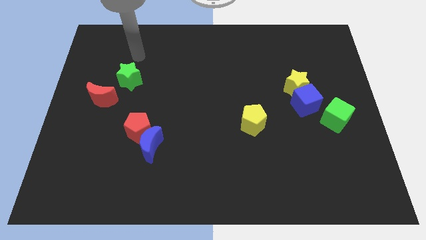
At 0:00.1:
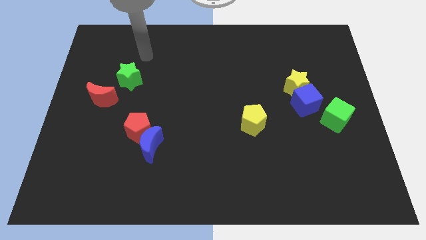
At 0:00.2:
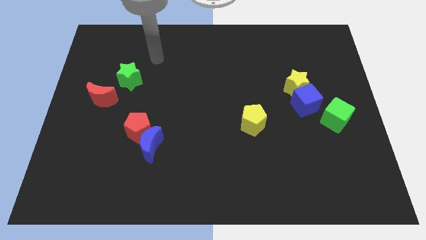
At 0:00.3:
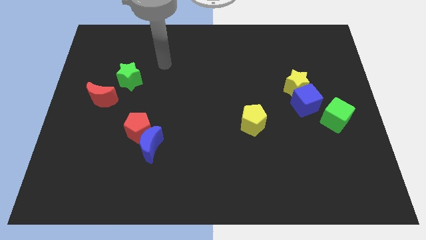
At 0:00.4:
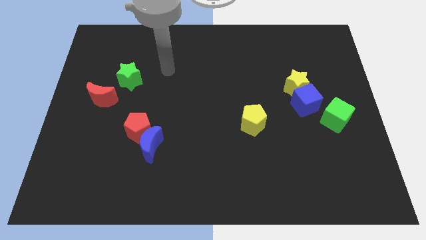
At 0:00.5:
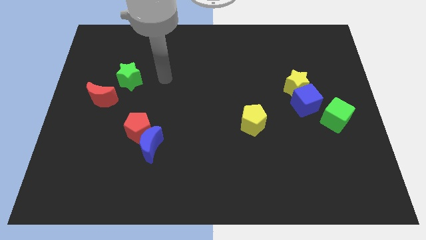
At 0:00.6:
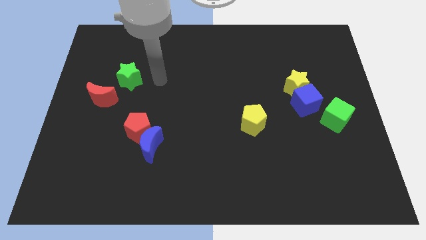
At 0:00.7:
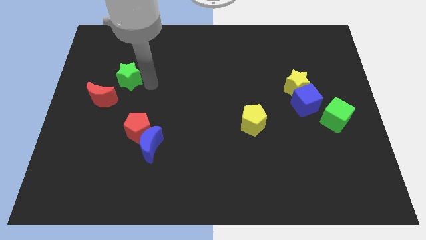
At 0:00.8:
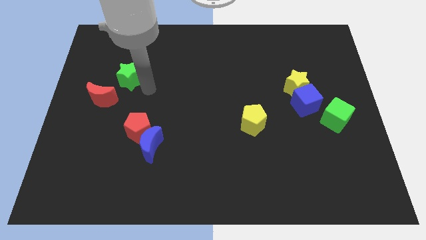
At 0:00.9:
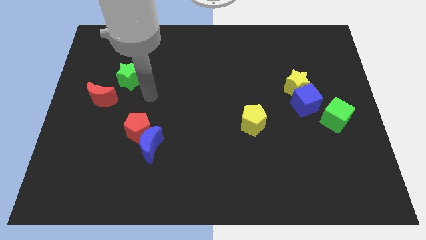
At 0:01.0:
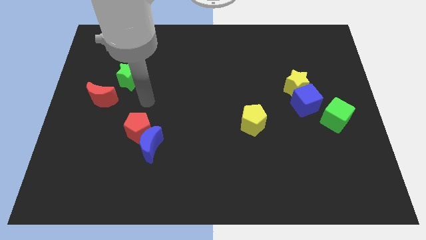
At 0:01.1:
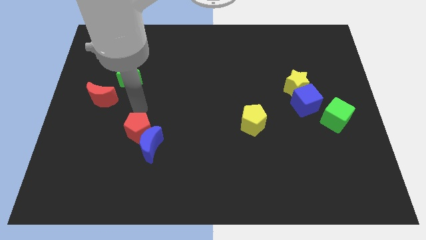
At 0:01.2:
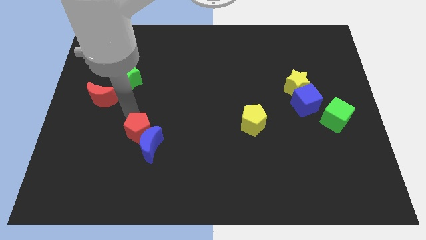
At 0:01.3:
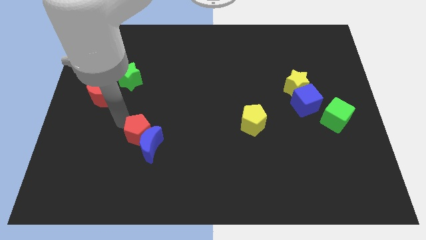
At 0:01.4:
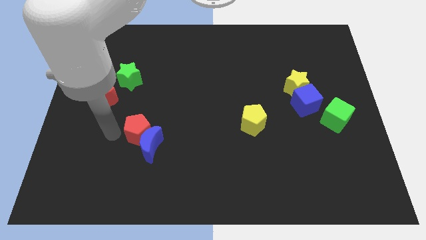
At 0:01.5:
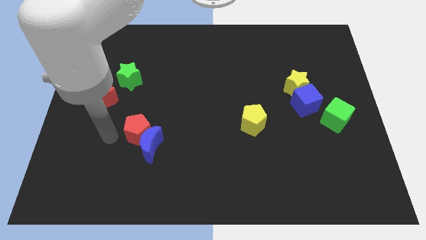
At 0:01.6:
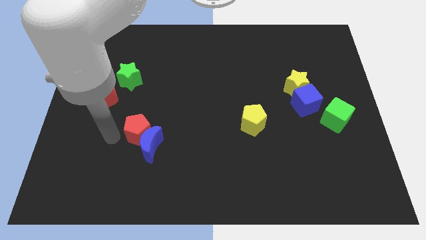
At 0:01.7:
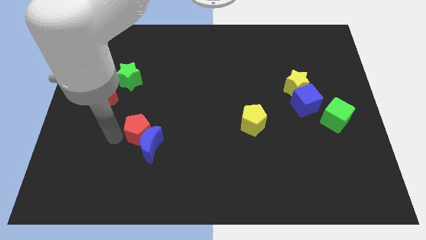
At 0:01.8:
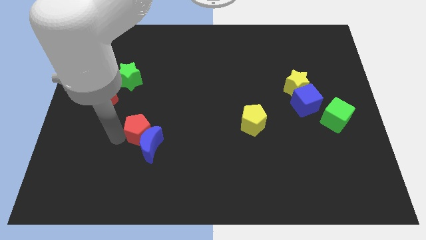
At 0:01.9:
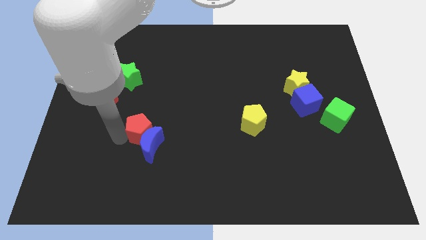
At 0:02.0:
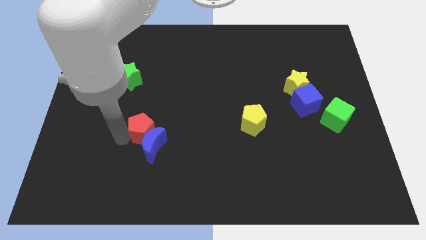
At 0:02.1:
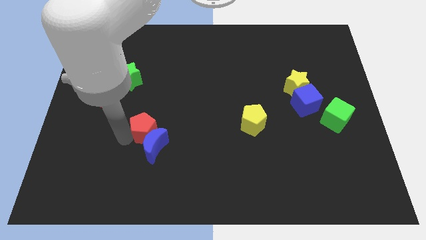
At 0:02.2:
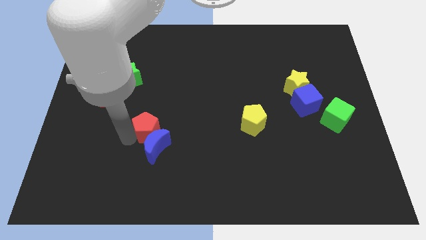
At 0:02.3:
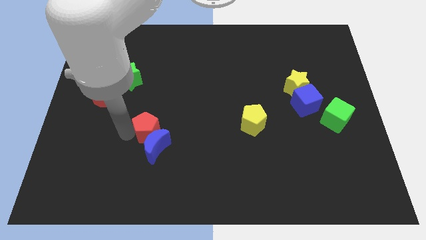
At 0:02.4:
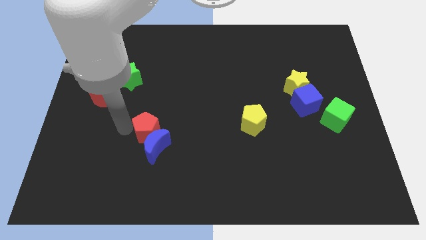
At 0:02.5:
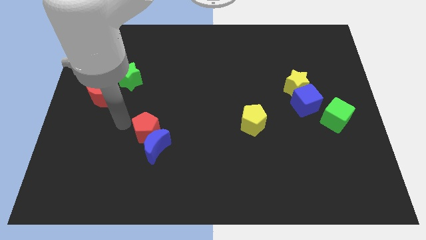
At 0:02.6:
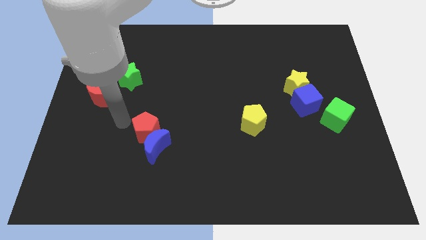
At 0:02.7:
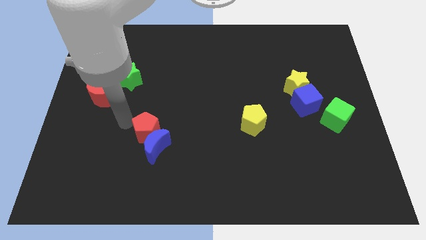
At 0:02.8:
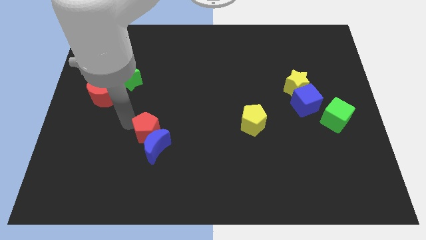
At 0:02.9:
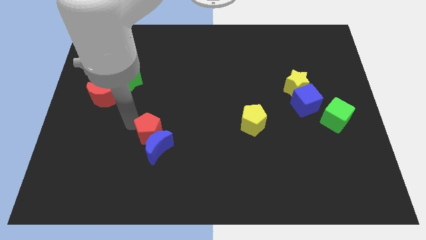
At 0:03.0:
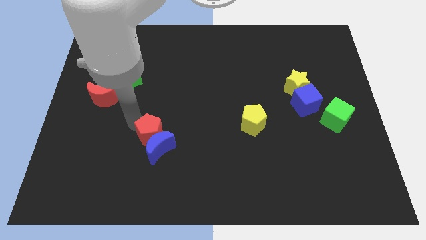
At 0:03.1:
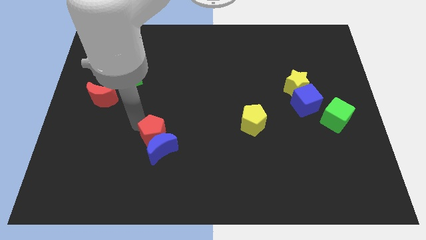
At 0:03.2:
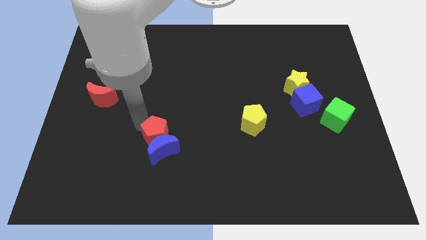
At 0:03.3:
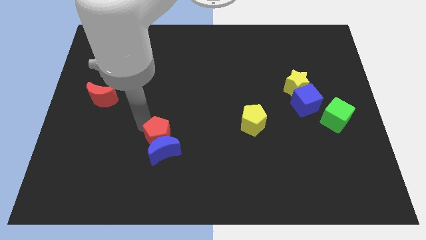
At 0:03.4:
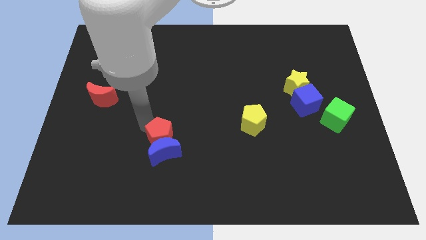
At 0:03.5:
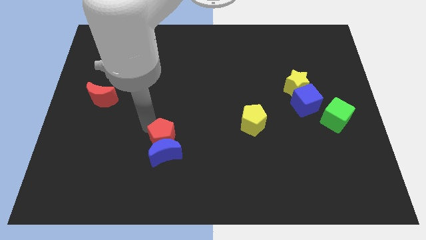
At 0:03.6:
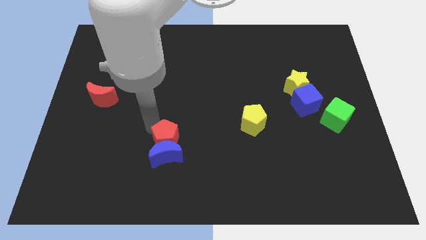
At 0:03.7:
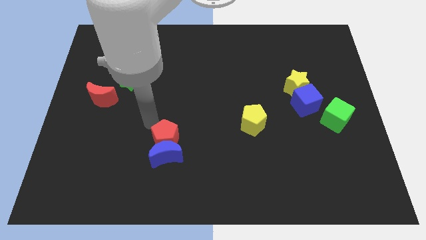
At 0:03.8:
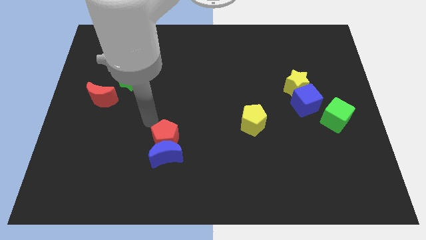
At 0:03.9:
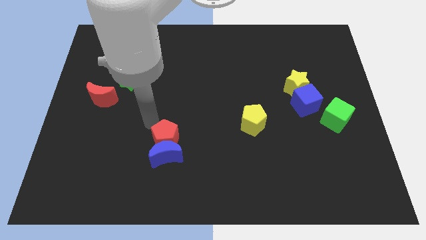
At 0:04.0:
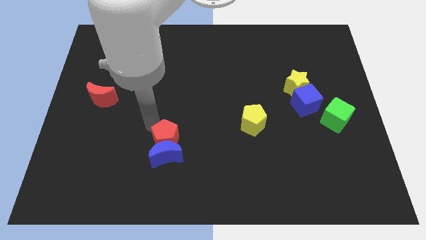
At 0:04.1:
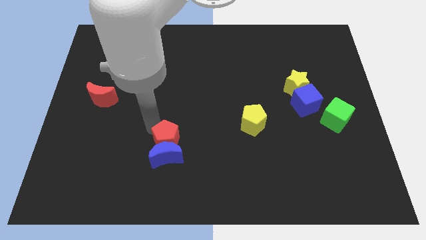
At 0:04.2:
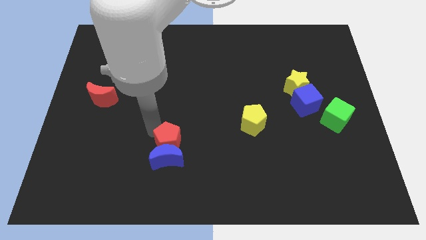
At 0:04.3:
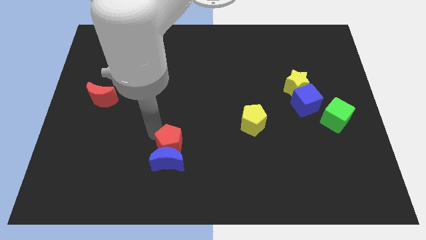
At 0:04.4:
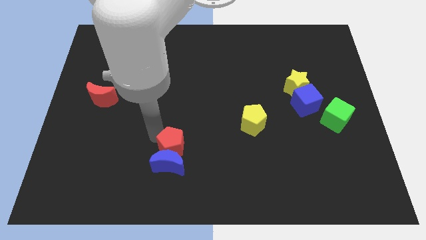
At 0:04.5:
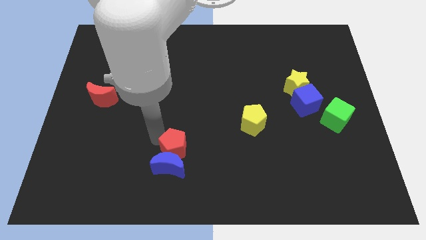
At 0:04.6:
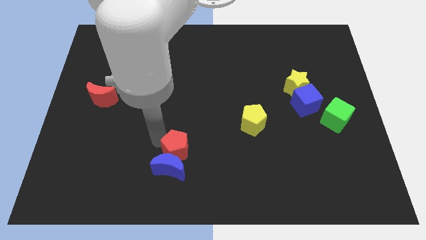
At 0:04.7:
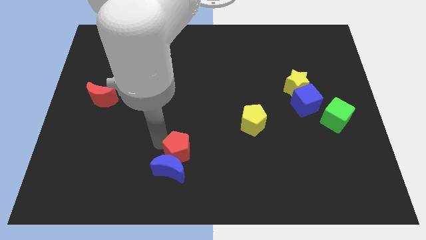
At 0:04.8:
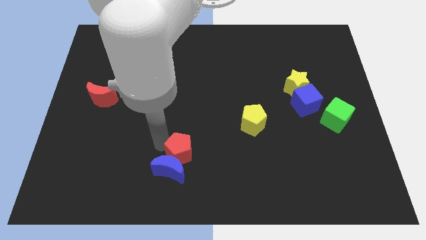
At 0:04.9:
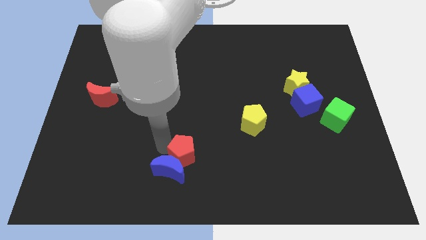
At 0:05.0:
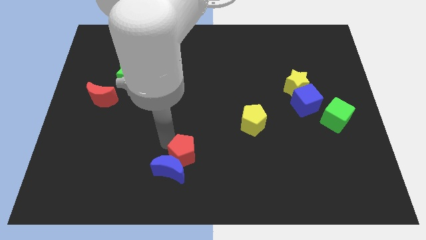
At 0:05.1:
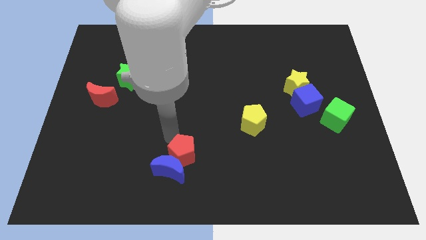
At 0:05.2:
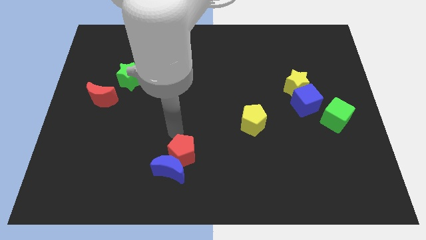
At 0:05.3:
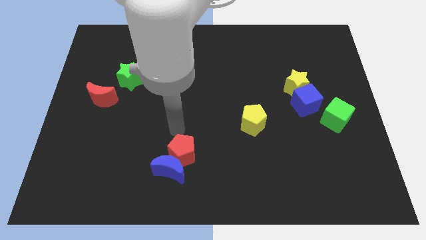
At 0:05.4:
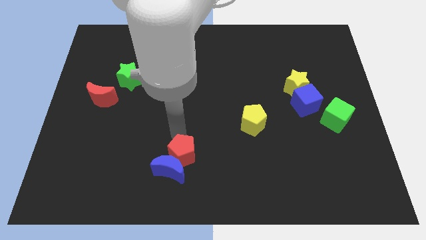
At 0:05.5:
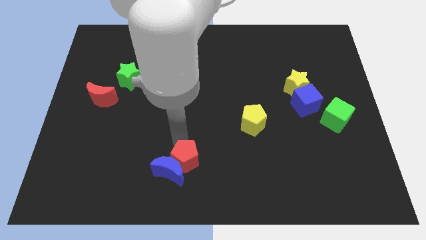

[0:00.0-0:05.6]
put the red pentagon to the bottom

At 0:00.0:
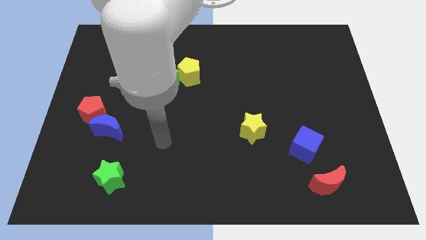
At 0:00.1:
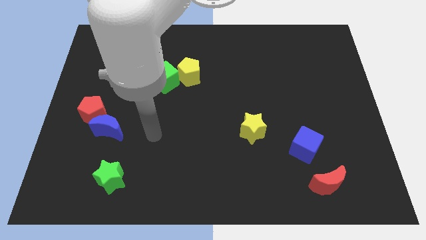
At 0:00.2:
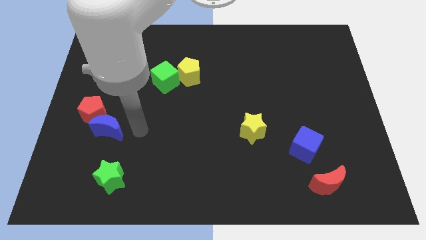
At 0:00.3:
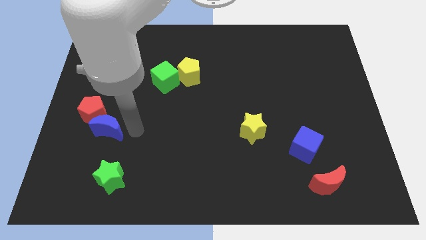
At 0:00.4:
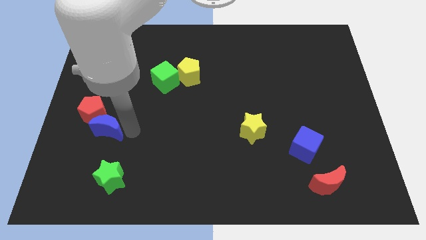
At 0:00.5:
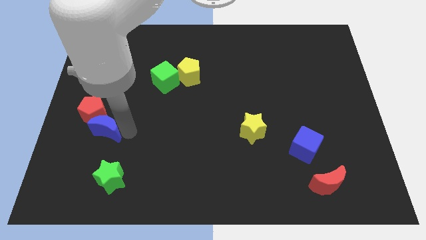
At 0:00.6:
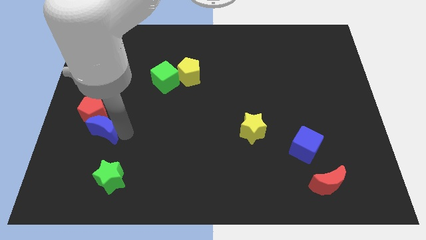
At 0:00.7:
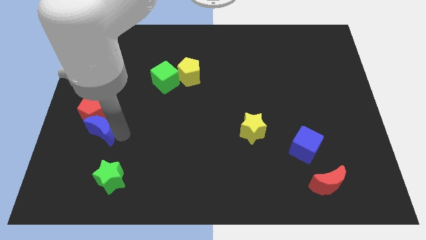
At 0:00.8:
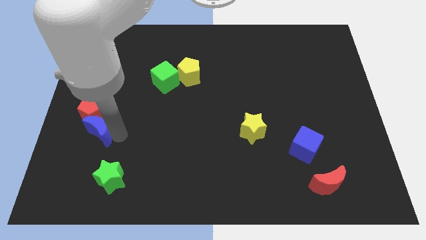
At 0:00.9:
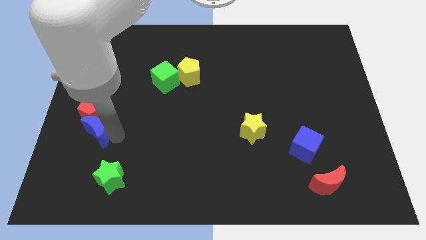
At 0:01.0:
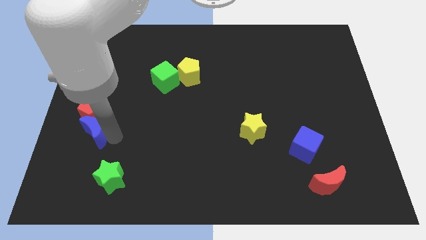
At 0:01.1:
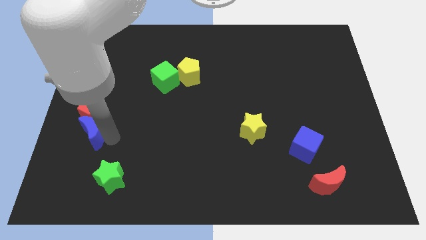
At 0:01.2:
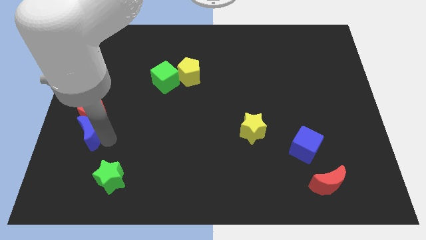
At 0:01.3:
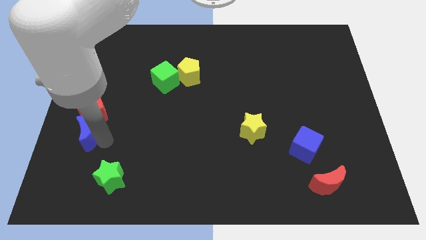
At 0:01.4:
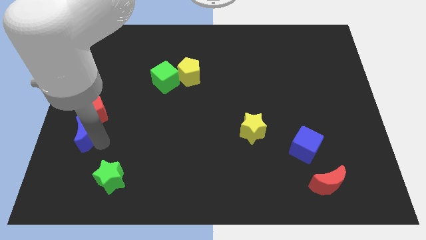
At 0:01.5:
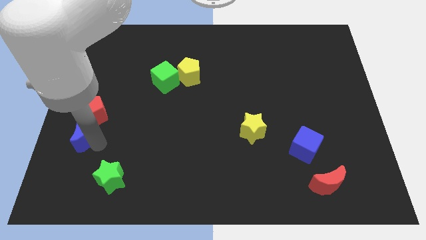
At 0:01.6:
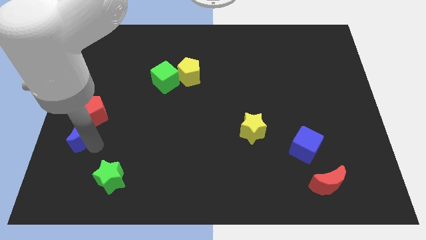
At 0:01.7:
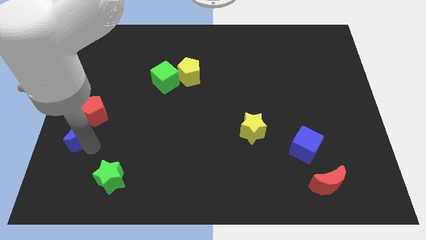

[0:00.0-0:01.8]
put the blue moon to the left side of the board
